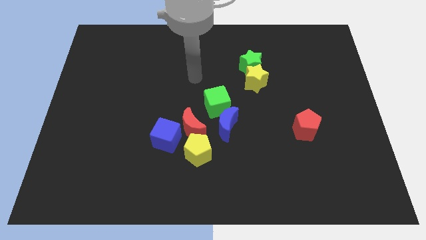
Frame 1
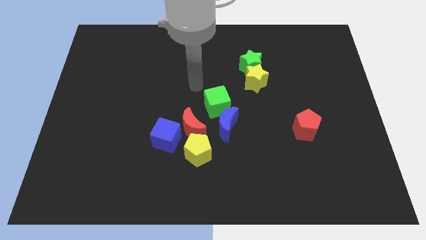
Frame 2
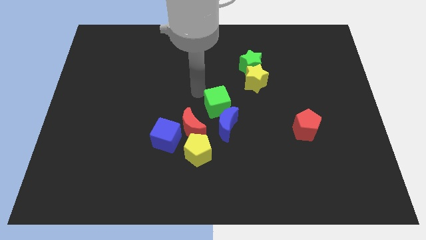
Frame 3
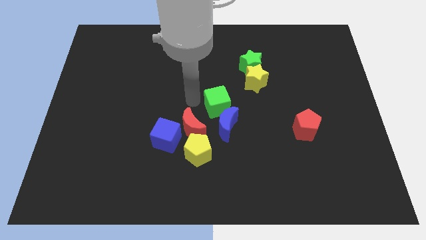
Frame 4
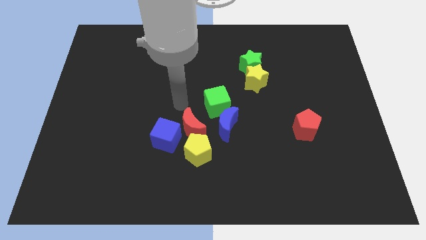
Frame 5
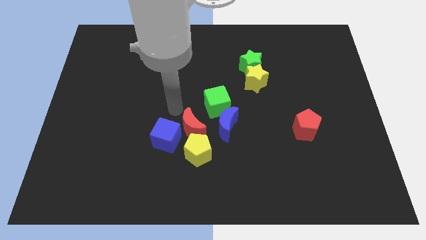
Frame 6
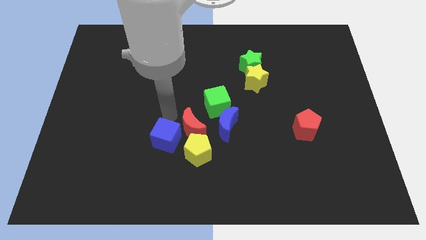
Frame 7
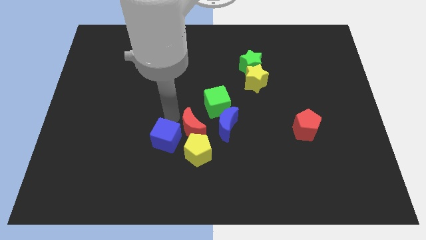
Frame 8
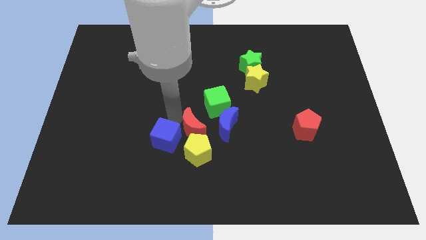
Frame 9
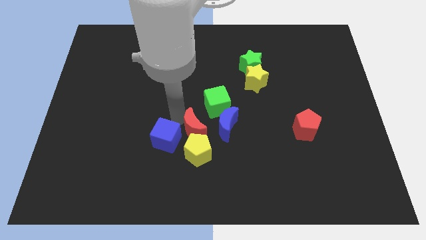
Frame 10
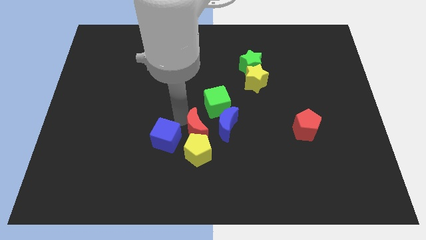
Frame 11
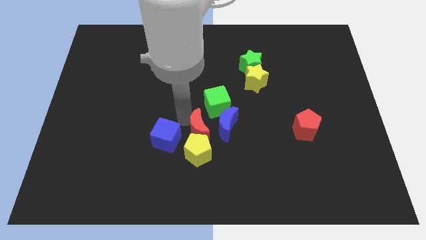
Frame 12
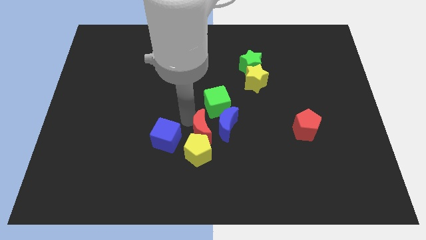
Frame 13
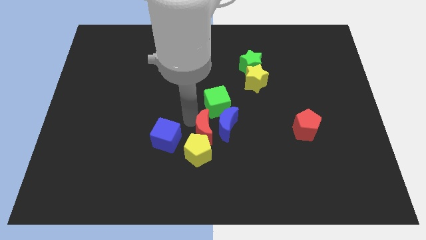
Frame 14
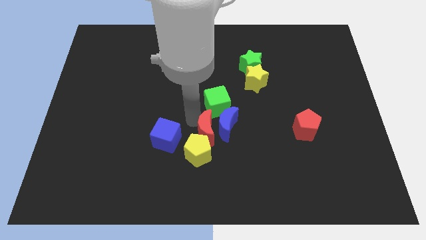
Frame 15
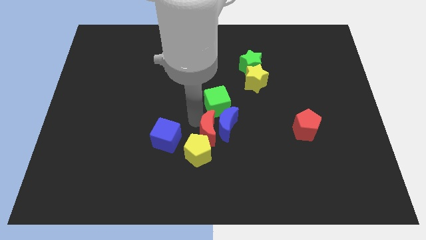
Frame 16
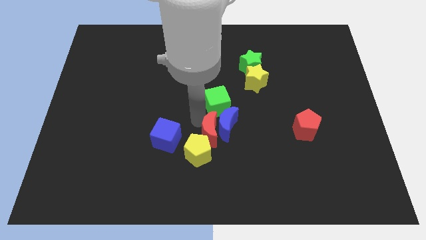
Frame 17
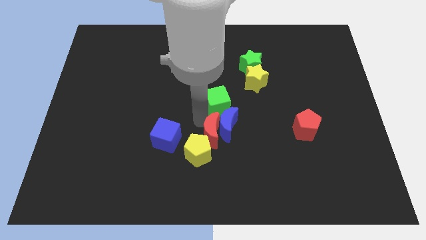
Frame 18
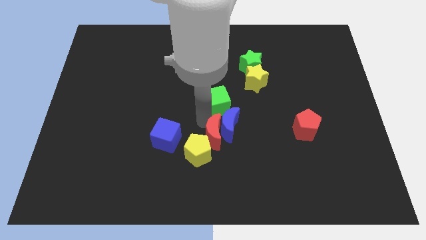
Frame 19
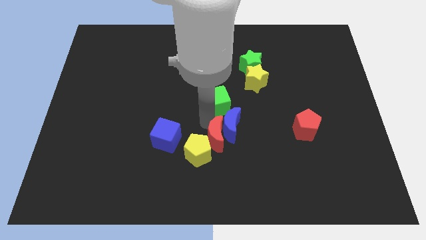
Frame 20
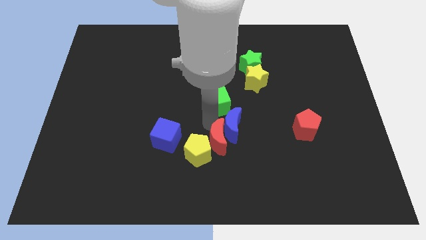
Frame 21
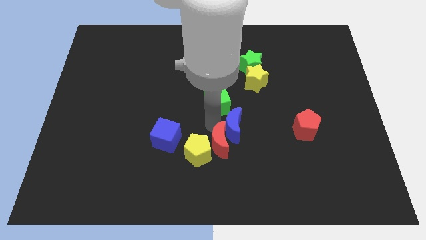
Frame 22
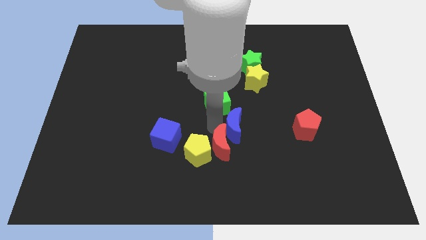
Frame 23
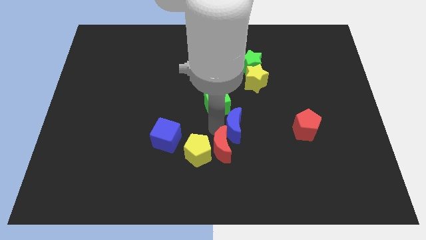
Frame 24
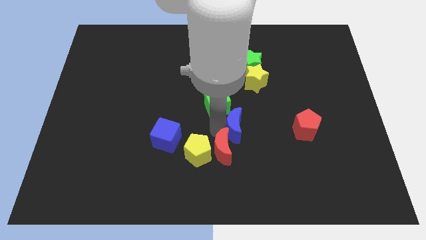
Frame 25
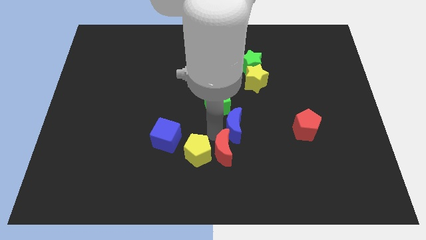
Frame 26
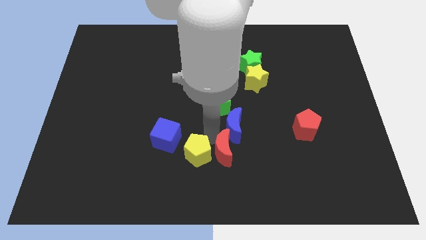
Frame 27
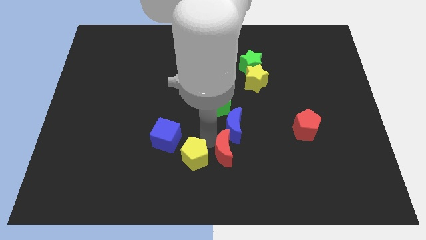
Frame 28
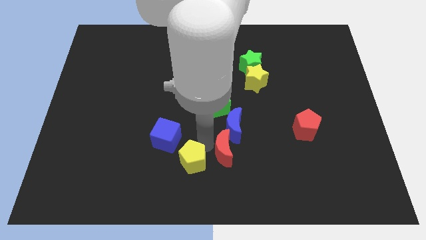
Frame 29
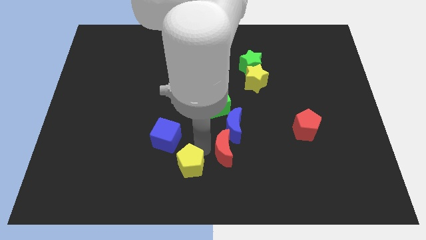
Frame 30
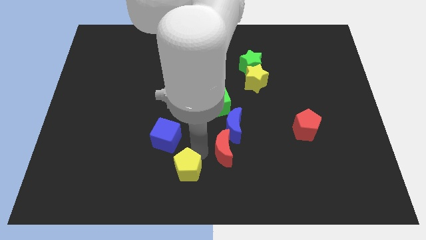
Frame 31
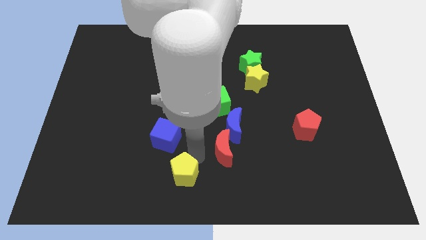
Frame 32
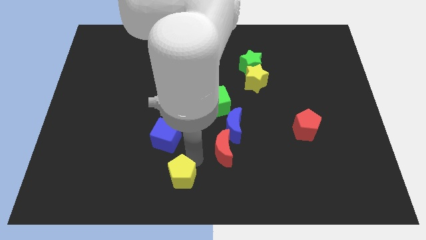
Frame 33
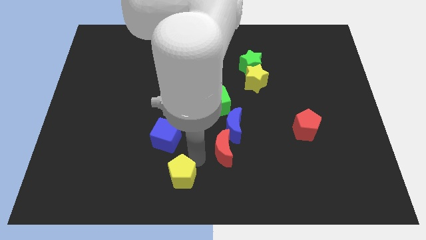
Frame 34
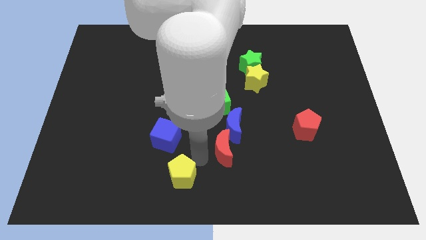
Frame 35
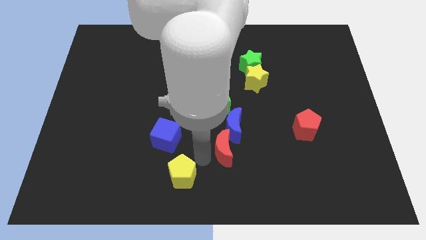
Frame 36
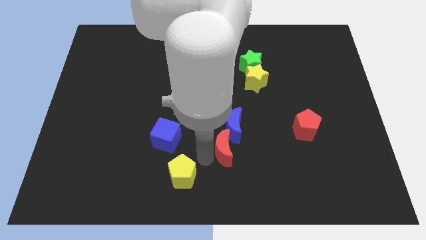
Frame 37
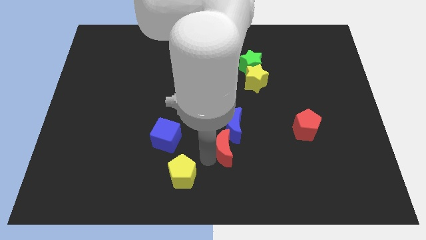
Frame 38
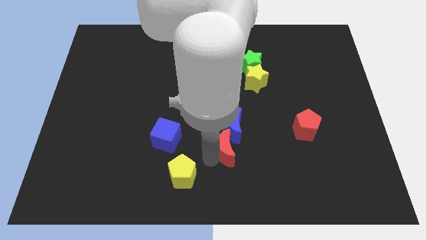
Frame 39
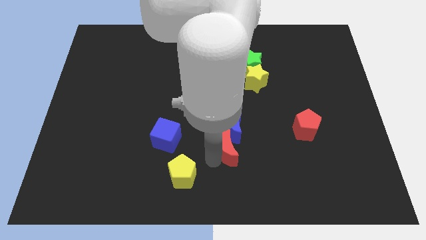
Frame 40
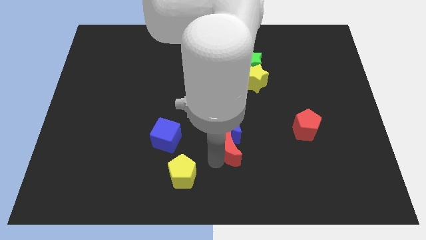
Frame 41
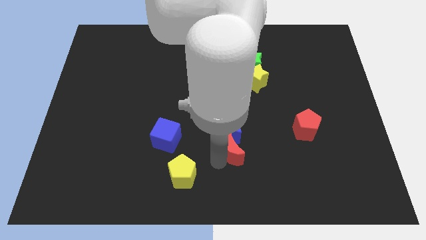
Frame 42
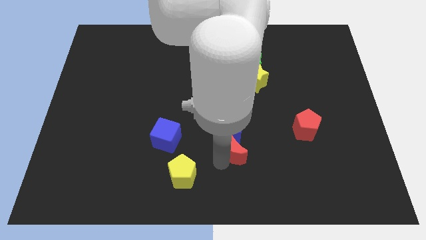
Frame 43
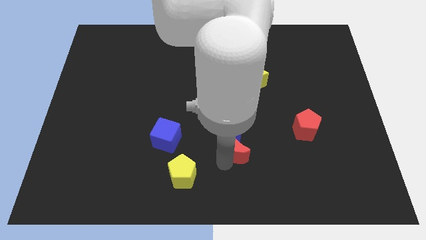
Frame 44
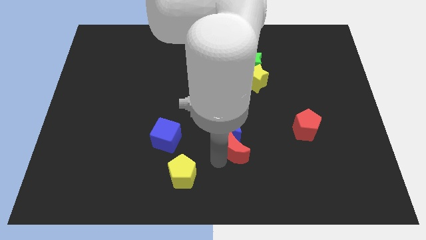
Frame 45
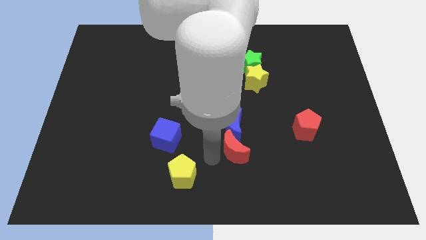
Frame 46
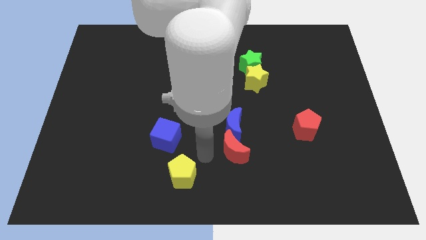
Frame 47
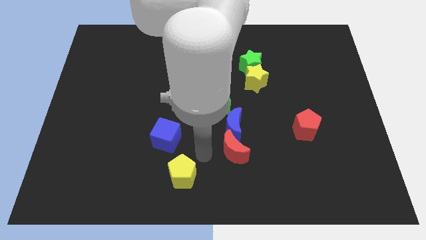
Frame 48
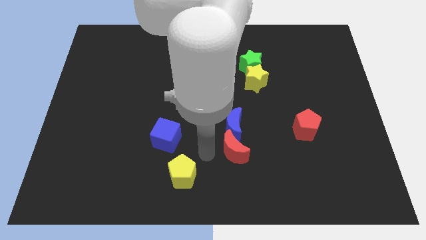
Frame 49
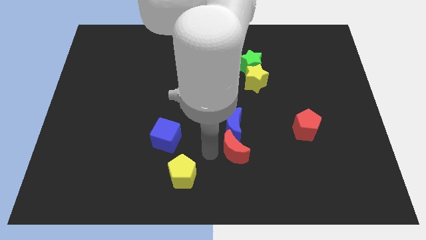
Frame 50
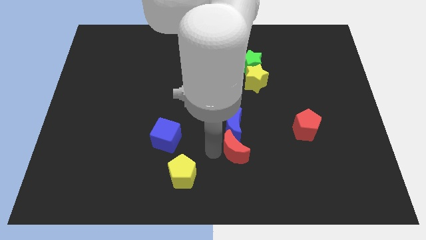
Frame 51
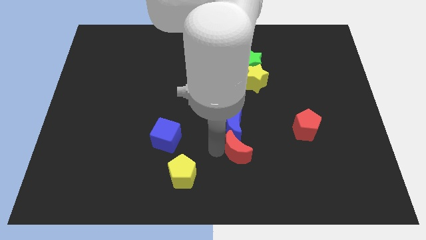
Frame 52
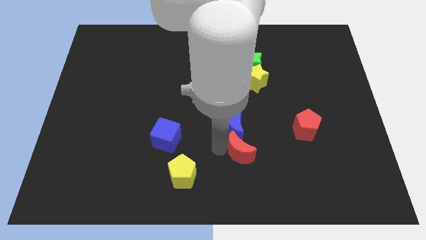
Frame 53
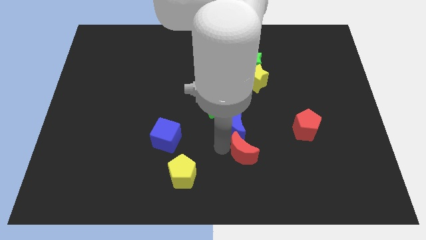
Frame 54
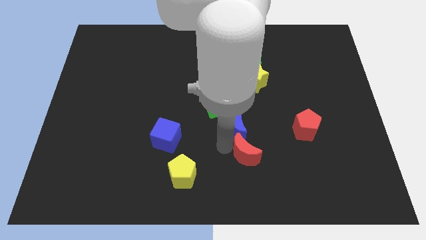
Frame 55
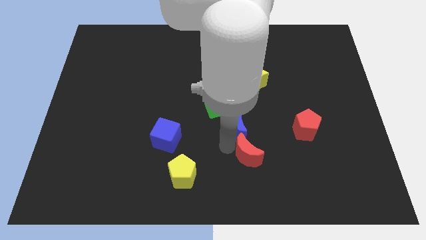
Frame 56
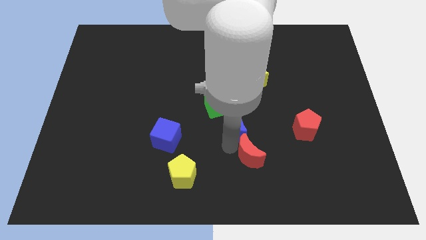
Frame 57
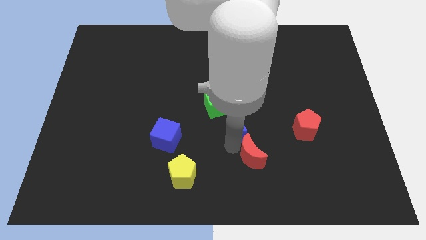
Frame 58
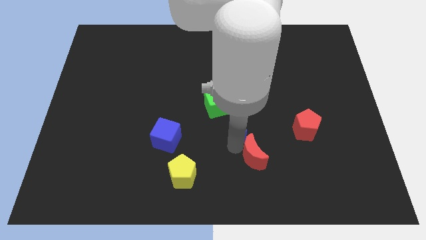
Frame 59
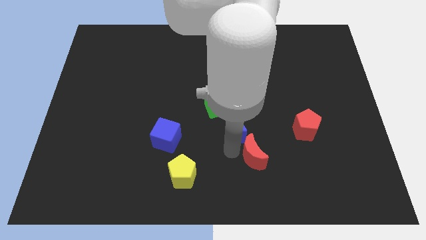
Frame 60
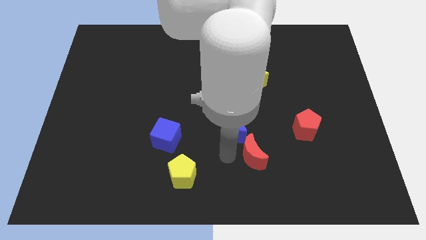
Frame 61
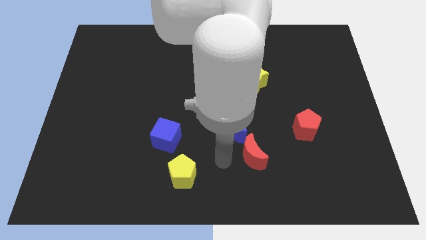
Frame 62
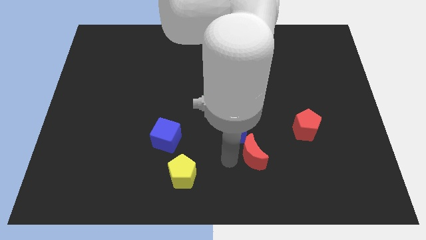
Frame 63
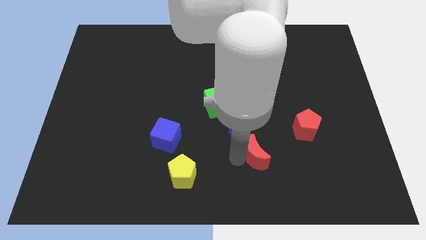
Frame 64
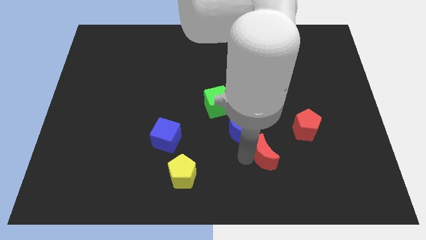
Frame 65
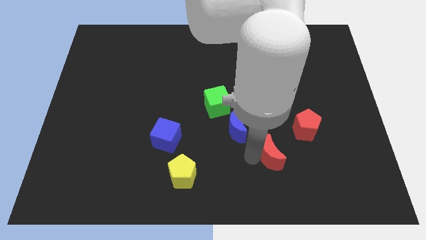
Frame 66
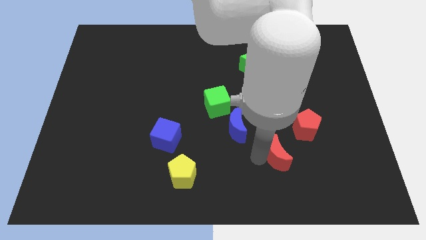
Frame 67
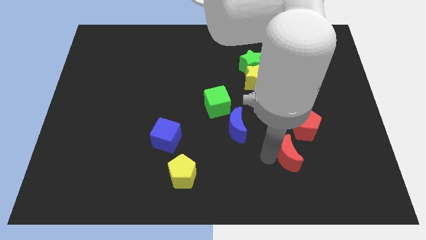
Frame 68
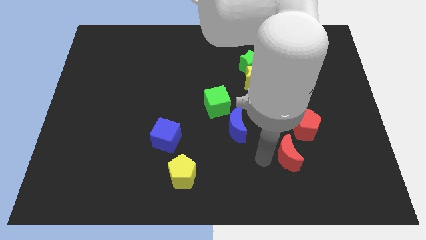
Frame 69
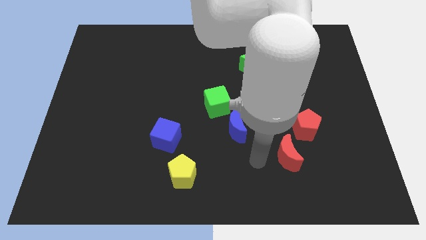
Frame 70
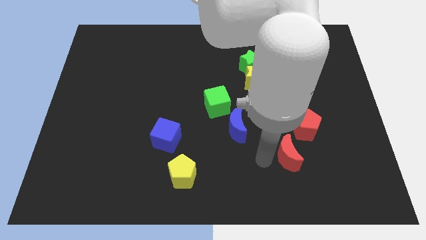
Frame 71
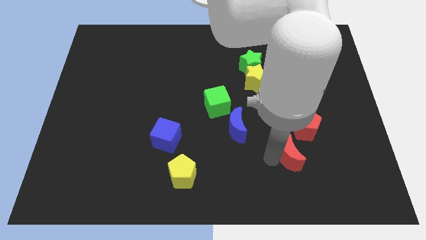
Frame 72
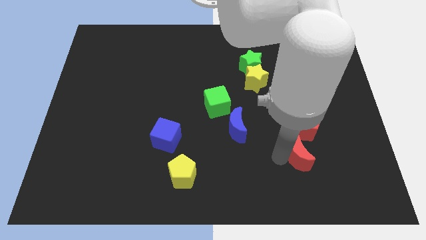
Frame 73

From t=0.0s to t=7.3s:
slide the red moon right

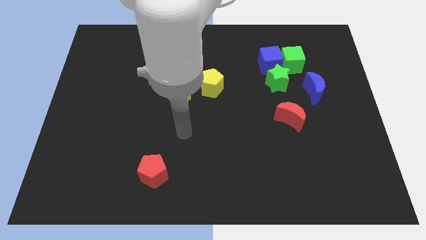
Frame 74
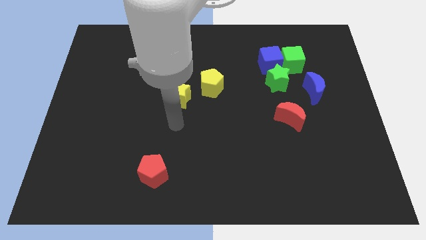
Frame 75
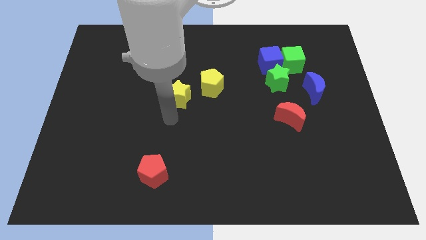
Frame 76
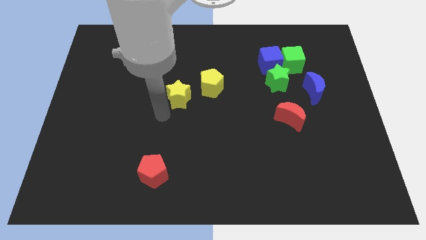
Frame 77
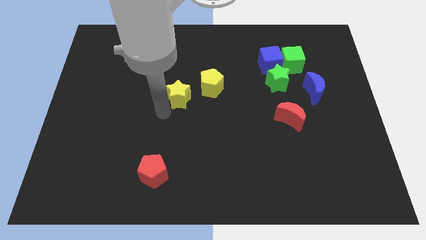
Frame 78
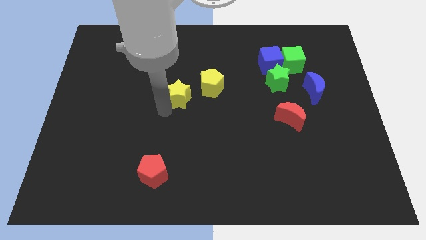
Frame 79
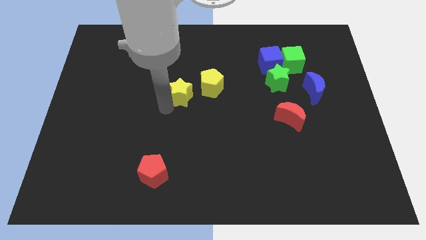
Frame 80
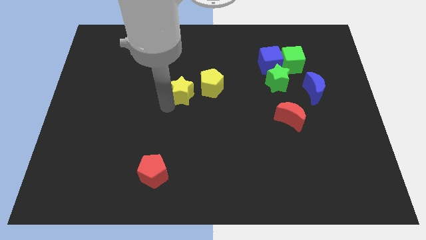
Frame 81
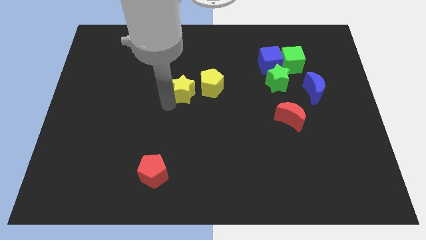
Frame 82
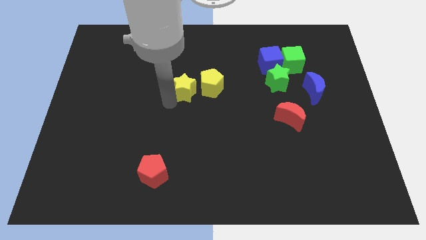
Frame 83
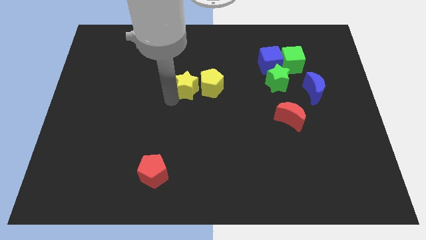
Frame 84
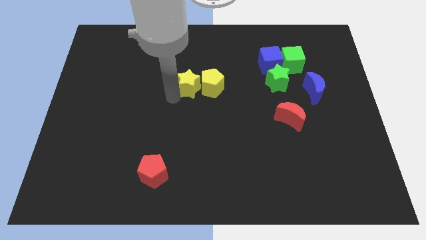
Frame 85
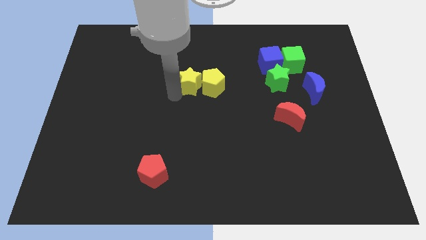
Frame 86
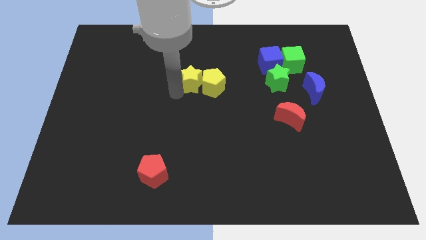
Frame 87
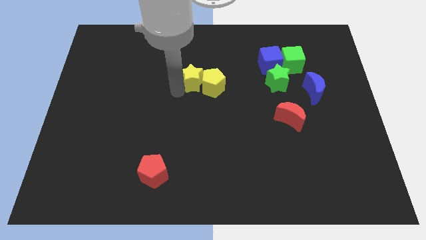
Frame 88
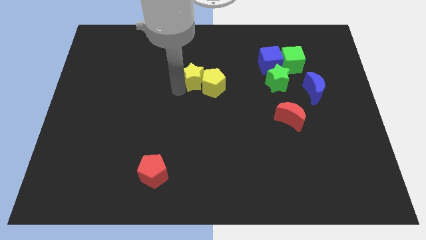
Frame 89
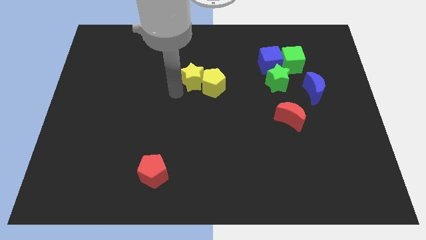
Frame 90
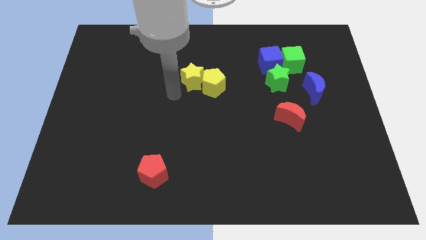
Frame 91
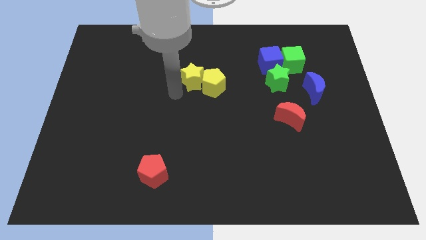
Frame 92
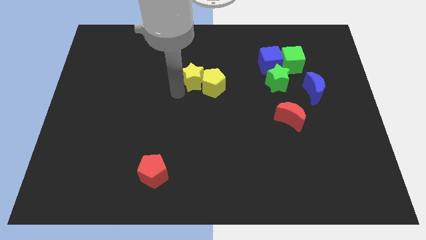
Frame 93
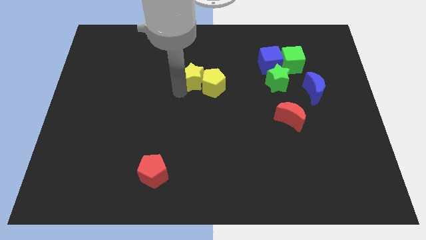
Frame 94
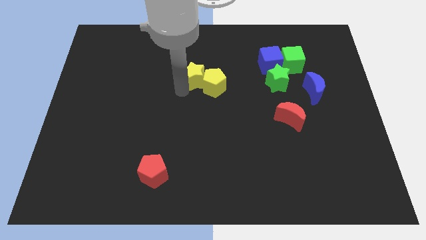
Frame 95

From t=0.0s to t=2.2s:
slide the yellow star slightly up and then to the right
